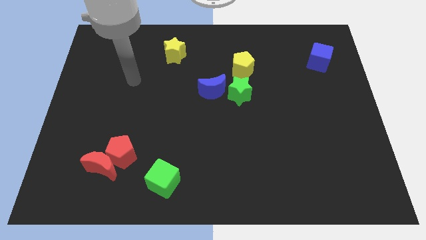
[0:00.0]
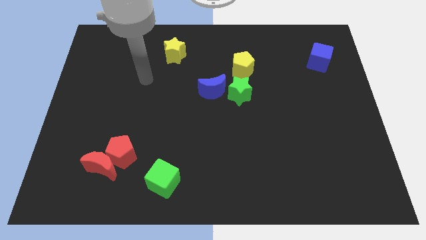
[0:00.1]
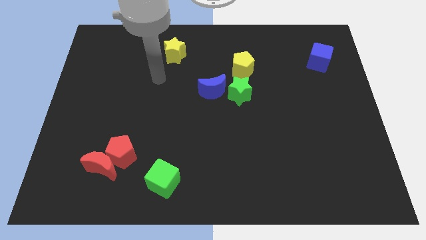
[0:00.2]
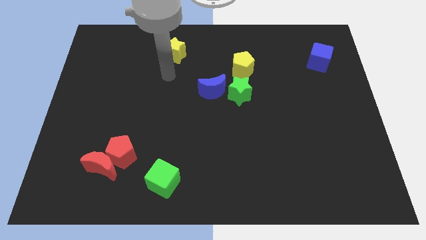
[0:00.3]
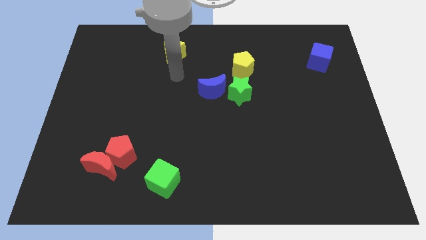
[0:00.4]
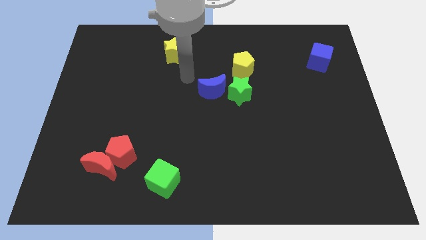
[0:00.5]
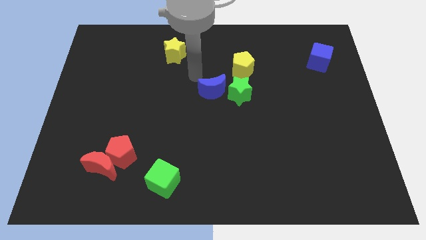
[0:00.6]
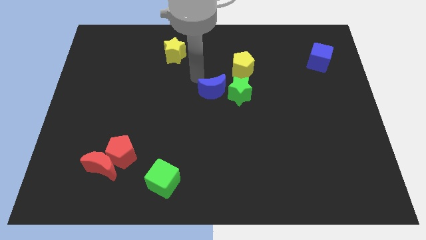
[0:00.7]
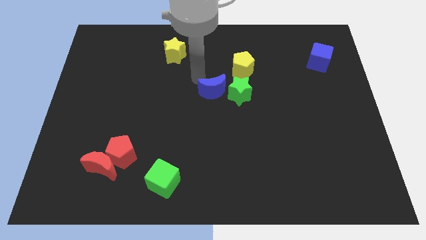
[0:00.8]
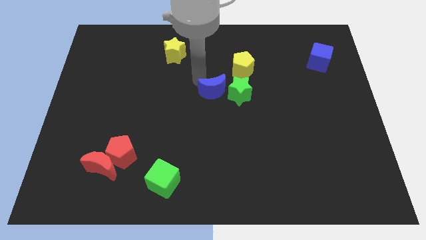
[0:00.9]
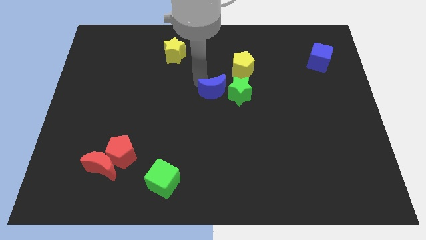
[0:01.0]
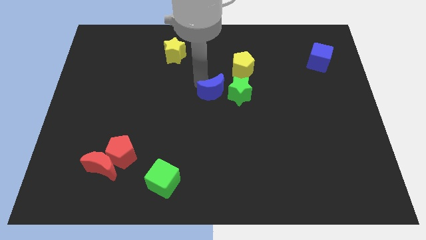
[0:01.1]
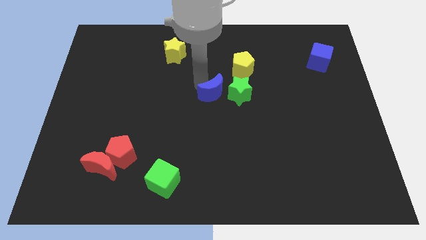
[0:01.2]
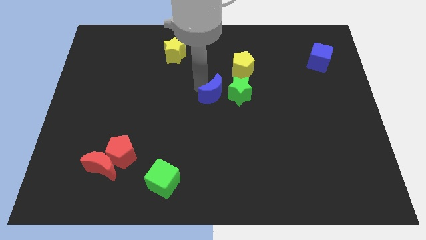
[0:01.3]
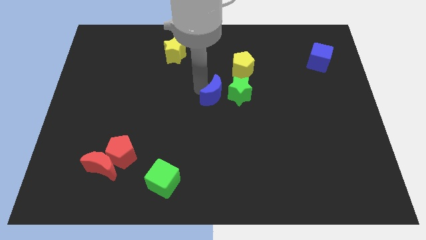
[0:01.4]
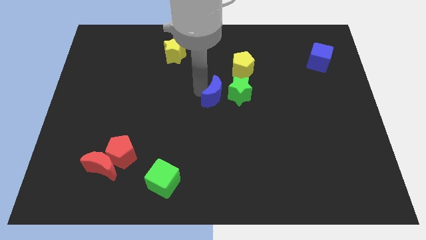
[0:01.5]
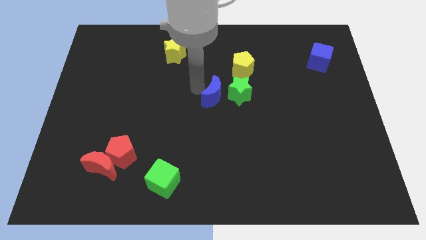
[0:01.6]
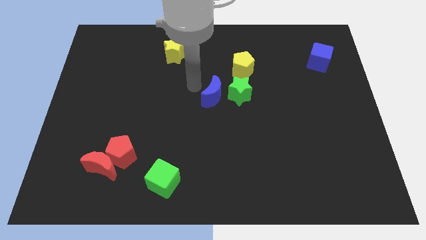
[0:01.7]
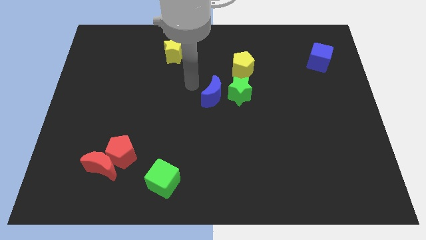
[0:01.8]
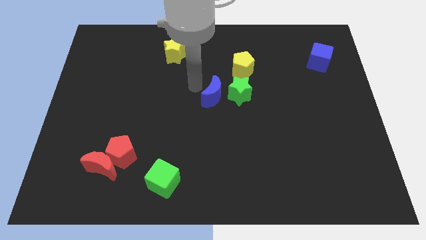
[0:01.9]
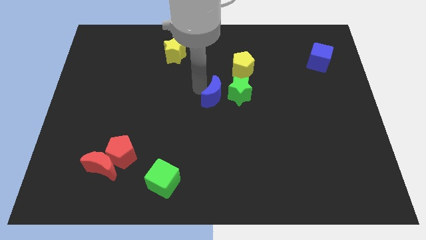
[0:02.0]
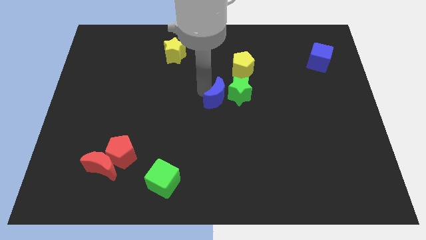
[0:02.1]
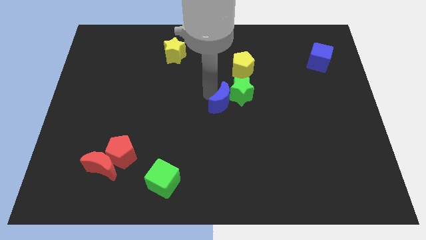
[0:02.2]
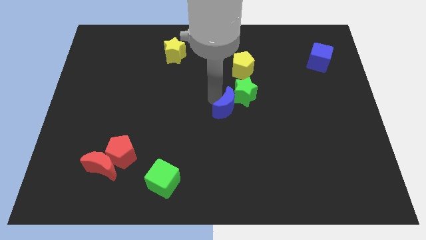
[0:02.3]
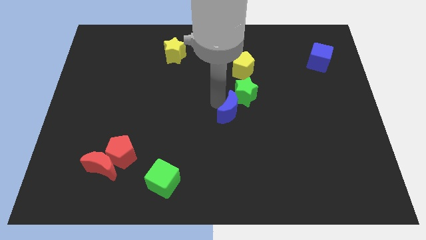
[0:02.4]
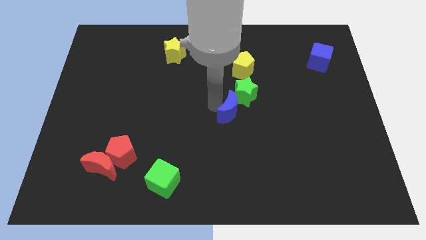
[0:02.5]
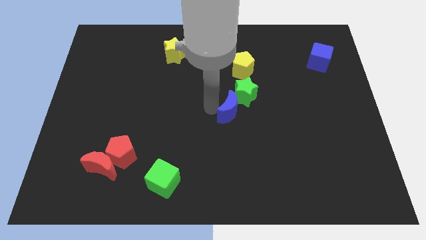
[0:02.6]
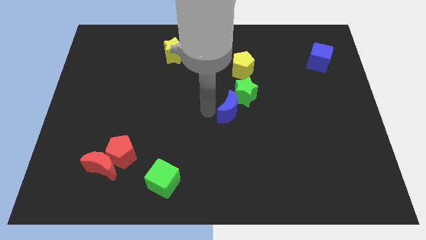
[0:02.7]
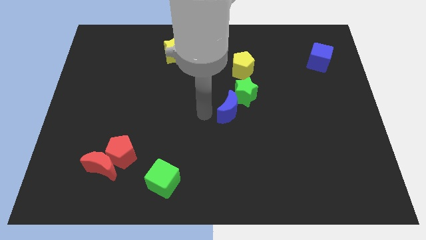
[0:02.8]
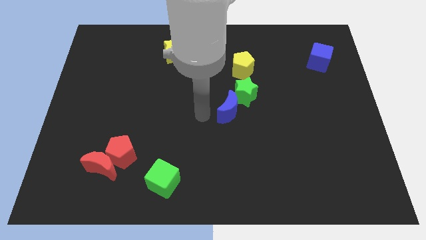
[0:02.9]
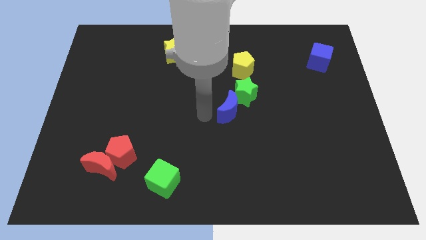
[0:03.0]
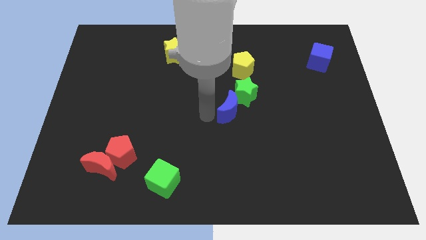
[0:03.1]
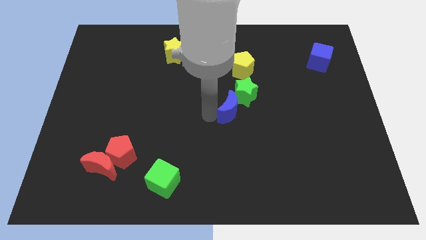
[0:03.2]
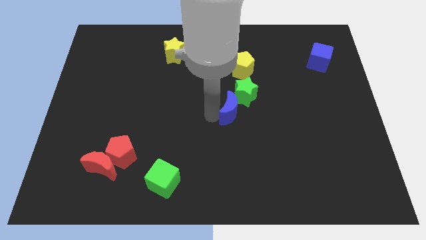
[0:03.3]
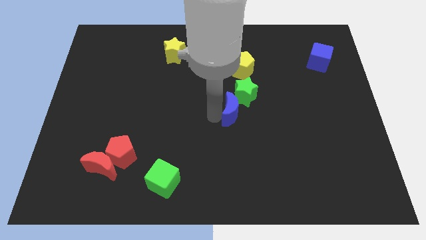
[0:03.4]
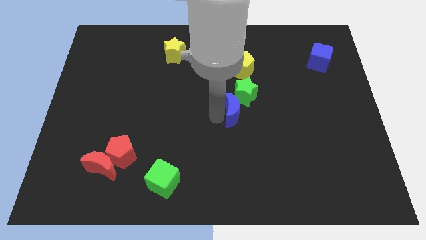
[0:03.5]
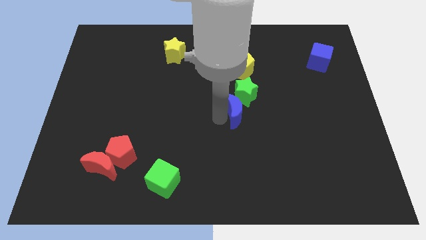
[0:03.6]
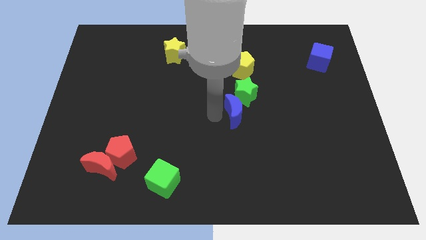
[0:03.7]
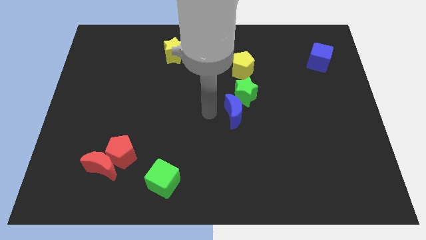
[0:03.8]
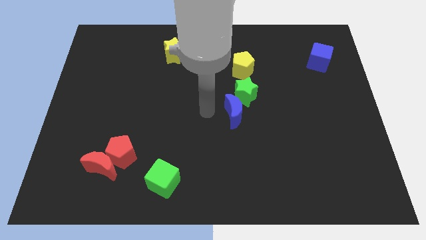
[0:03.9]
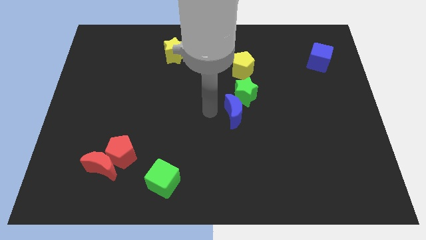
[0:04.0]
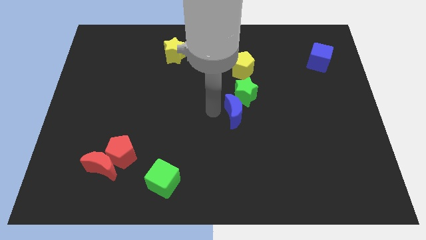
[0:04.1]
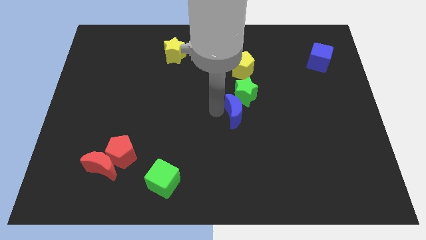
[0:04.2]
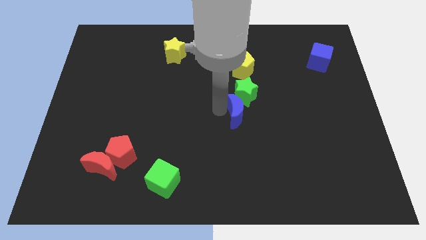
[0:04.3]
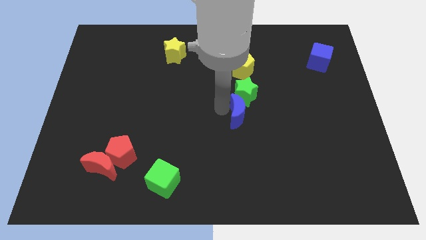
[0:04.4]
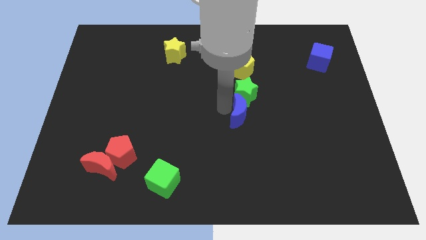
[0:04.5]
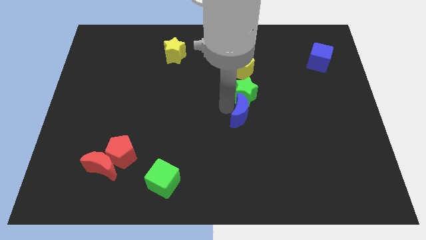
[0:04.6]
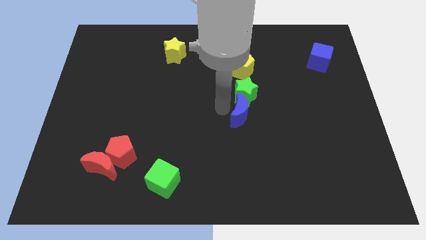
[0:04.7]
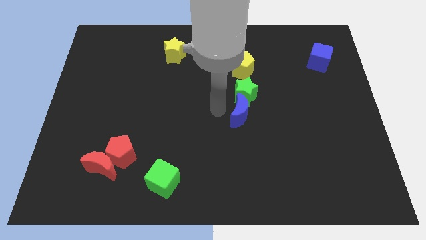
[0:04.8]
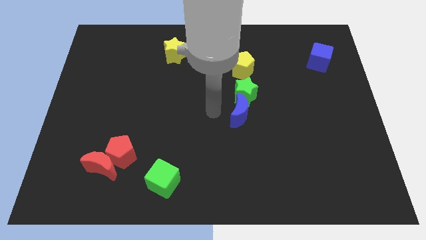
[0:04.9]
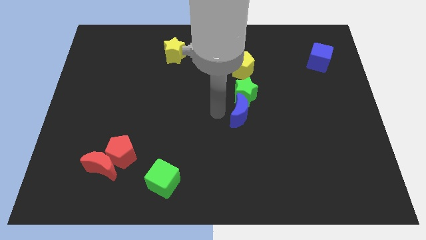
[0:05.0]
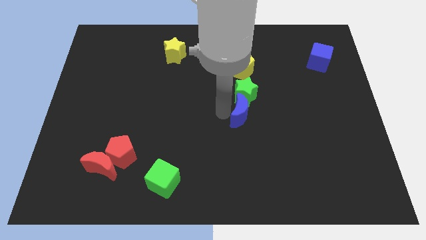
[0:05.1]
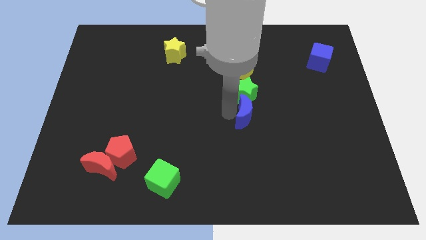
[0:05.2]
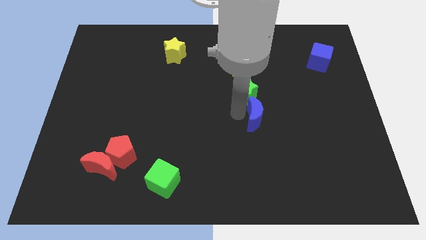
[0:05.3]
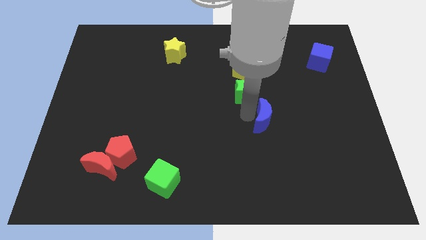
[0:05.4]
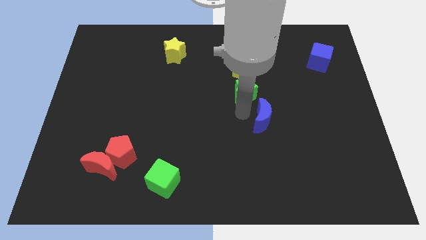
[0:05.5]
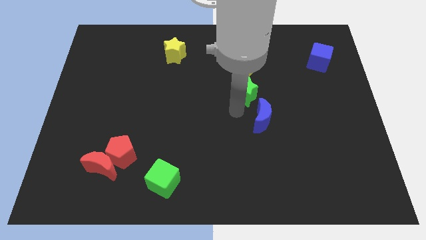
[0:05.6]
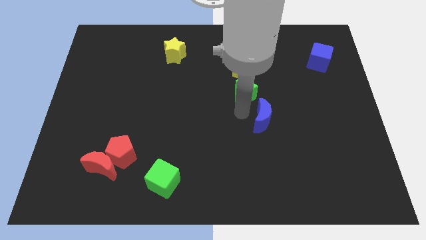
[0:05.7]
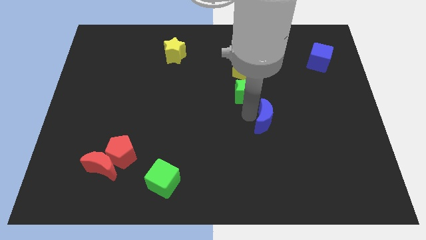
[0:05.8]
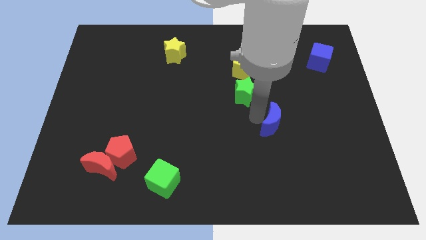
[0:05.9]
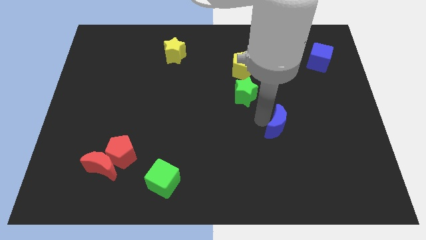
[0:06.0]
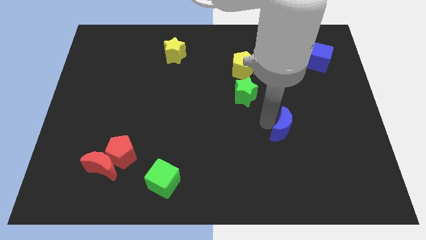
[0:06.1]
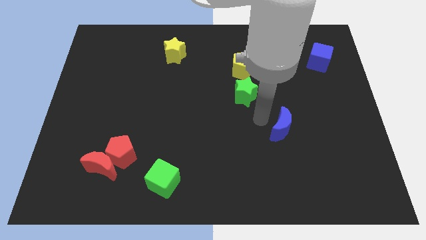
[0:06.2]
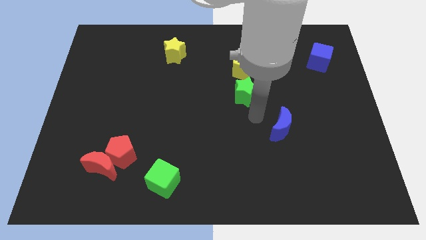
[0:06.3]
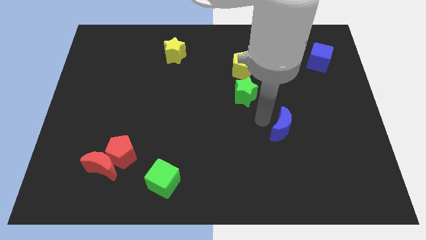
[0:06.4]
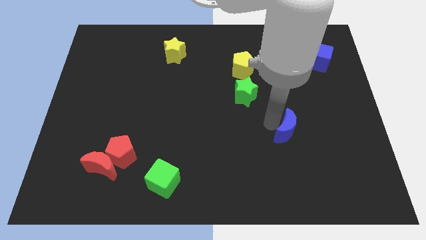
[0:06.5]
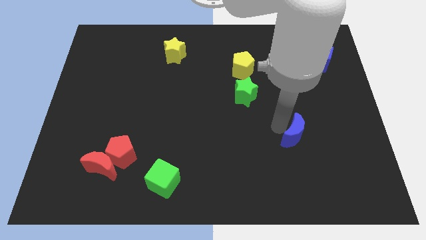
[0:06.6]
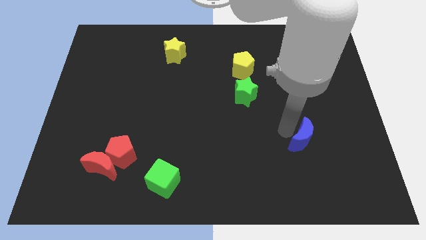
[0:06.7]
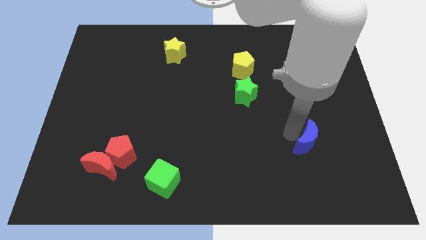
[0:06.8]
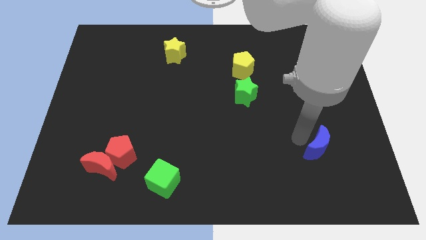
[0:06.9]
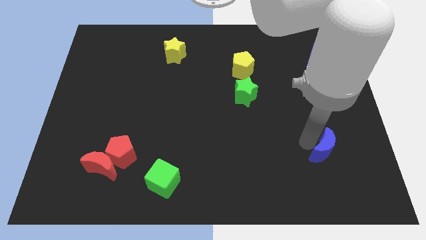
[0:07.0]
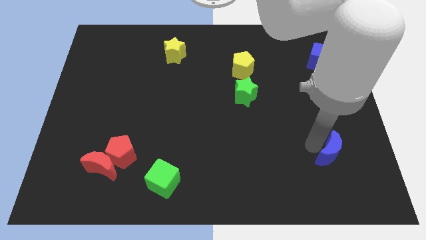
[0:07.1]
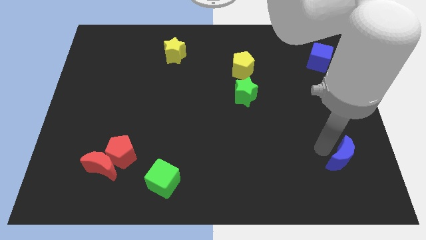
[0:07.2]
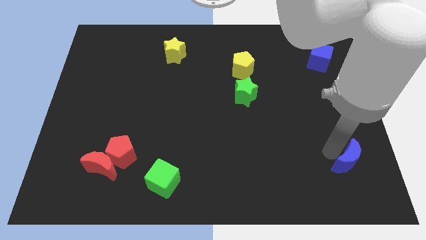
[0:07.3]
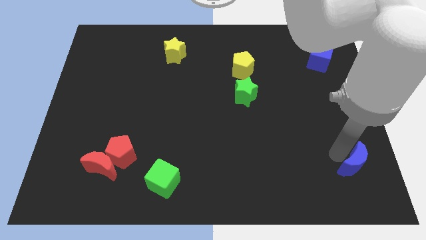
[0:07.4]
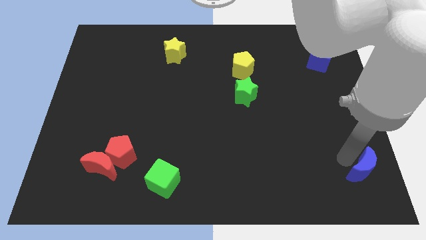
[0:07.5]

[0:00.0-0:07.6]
move the blue moon to the bottom right corner
